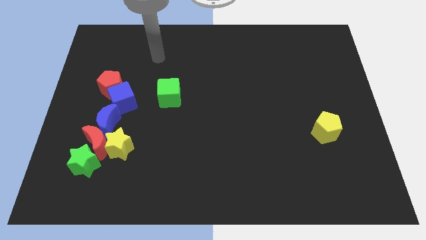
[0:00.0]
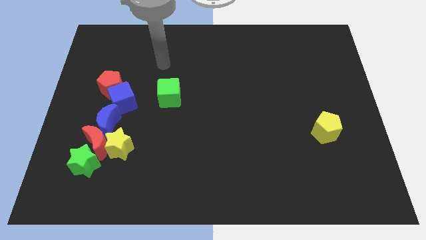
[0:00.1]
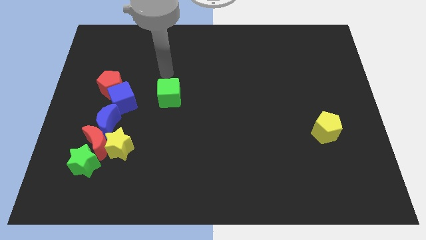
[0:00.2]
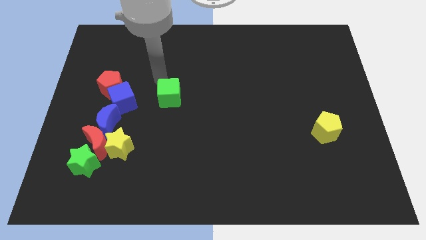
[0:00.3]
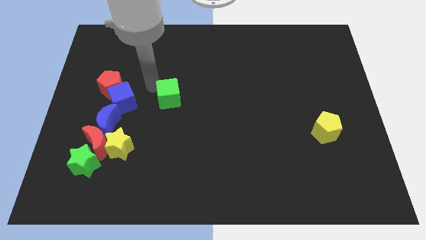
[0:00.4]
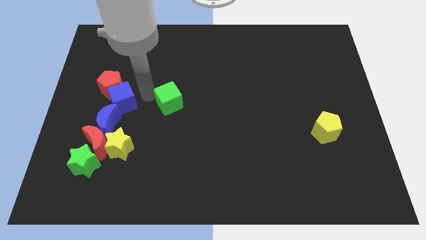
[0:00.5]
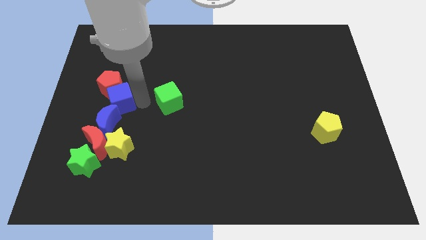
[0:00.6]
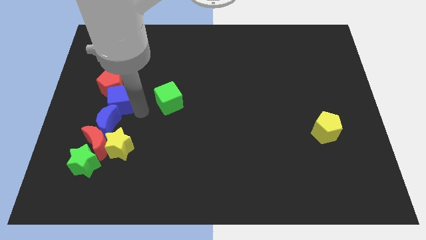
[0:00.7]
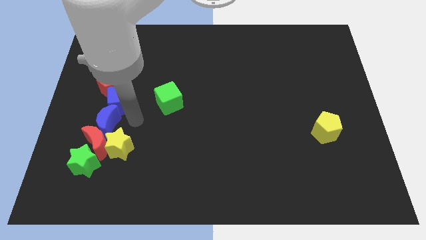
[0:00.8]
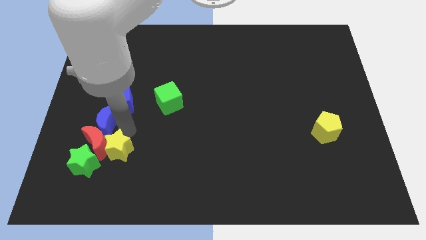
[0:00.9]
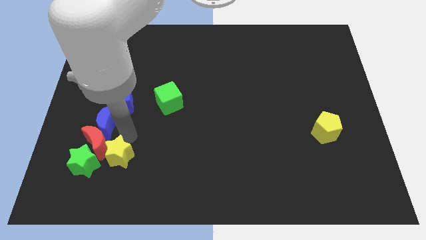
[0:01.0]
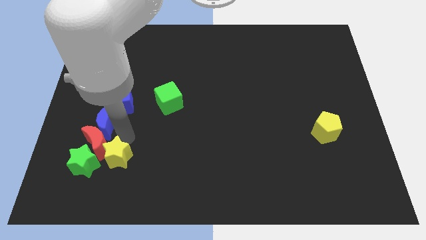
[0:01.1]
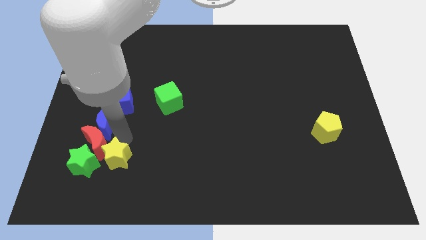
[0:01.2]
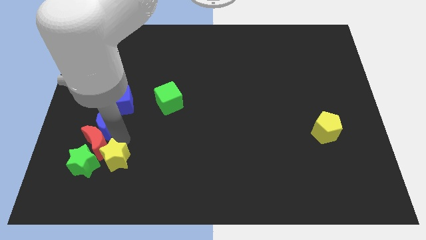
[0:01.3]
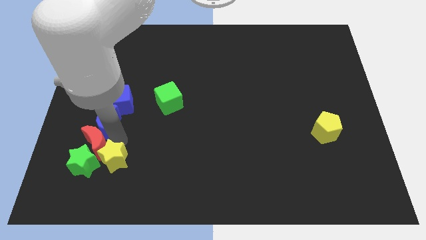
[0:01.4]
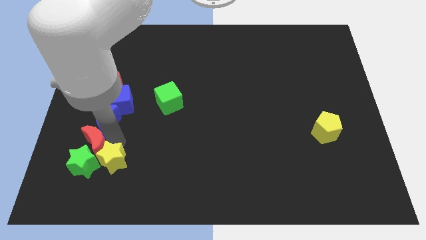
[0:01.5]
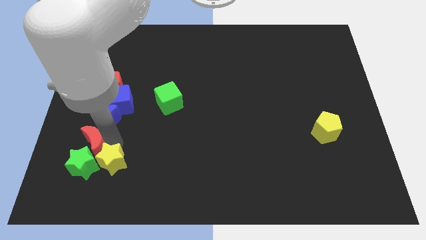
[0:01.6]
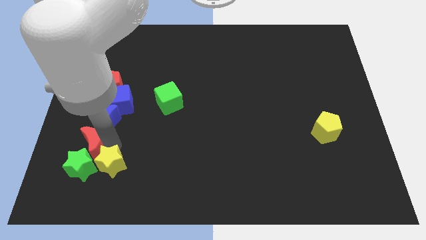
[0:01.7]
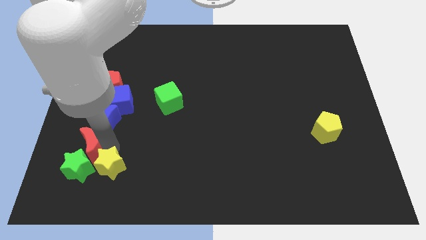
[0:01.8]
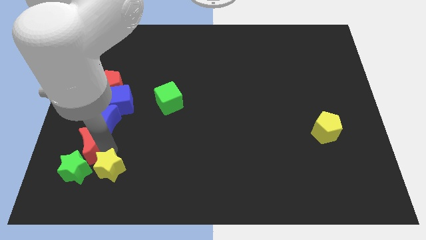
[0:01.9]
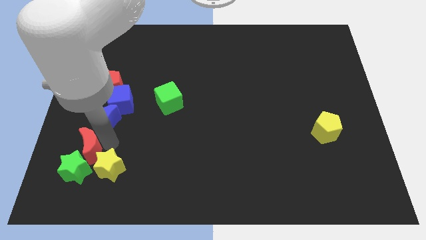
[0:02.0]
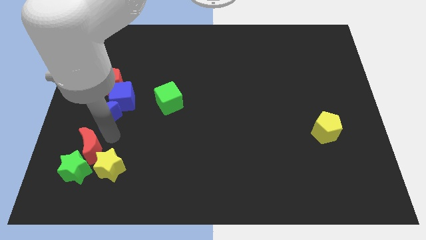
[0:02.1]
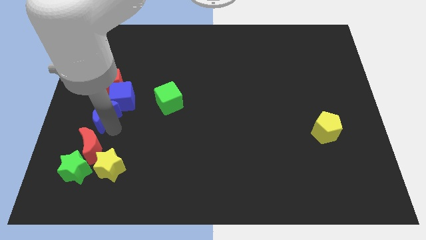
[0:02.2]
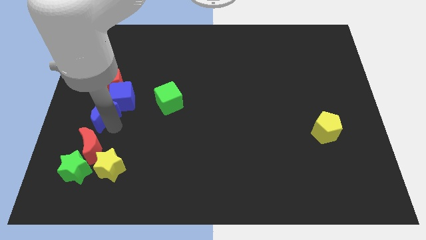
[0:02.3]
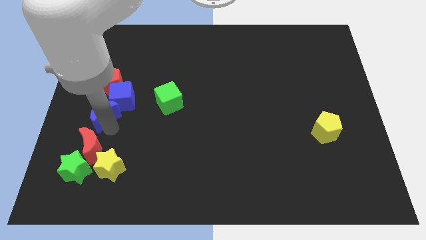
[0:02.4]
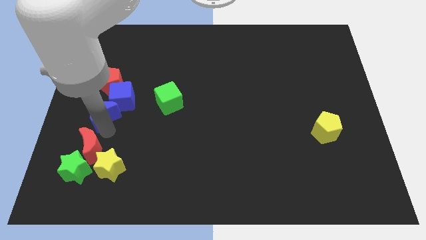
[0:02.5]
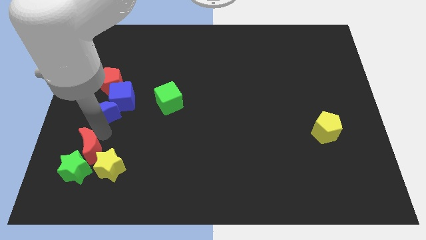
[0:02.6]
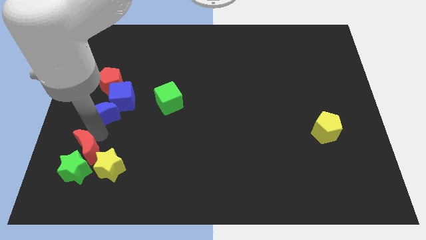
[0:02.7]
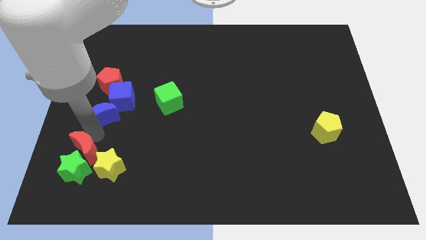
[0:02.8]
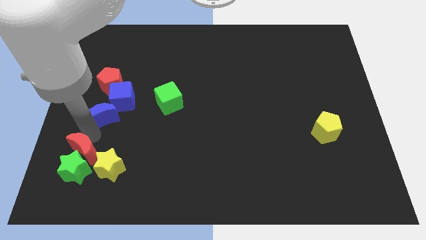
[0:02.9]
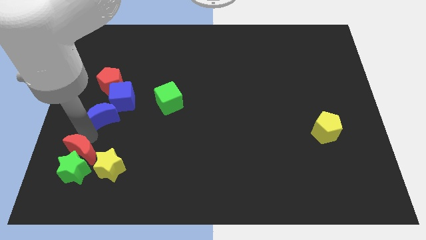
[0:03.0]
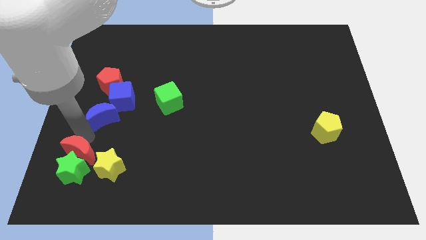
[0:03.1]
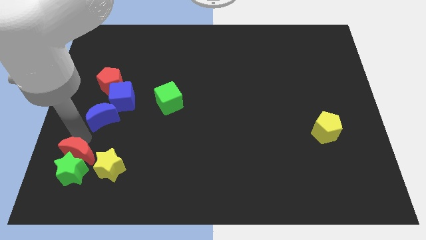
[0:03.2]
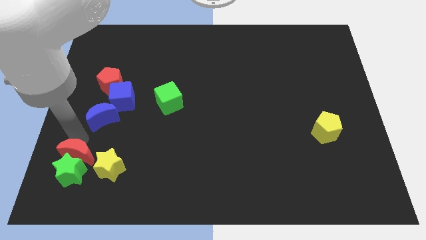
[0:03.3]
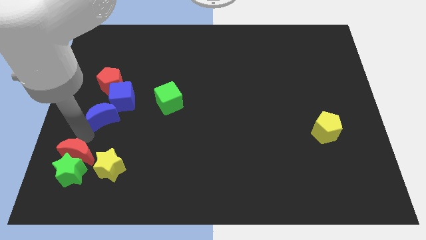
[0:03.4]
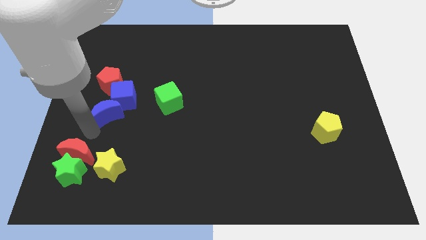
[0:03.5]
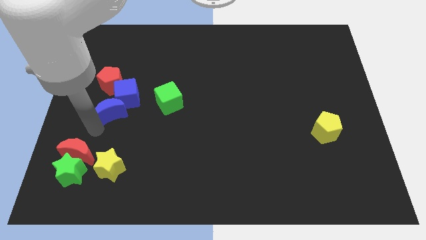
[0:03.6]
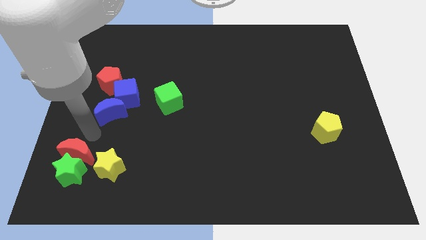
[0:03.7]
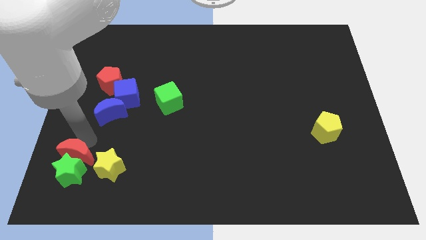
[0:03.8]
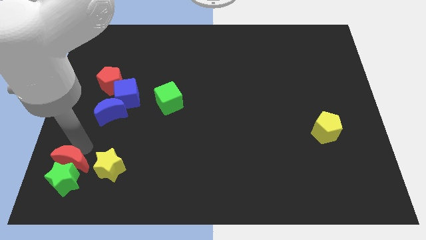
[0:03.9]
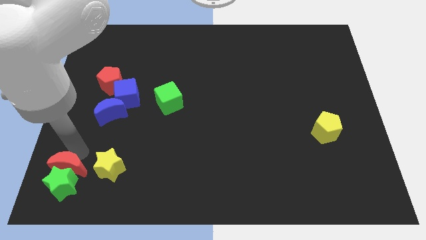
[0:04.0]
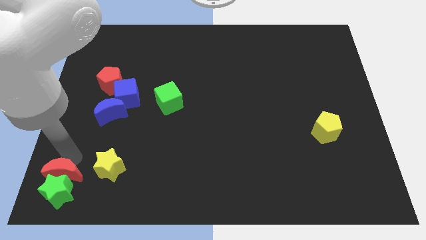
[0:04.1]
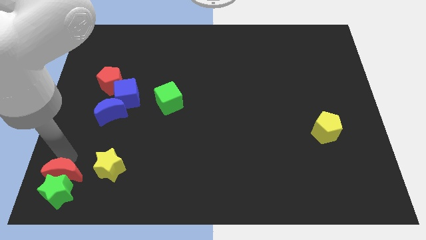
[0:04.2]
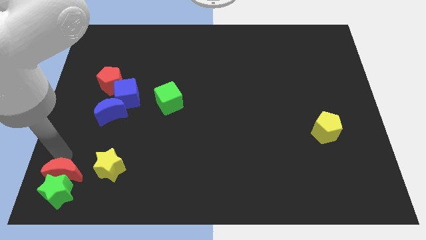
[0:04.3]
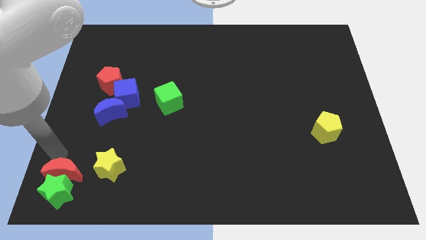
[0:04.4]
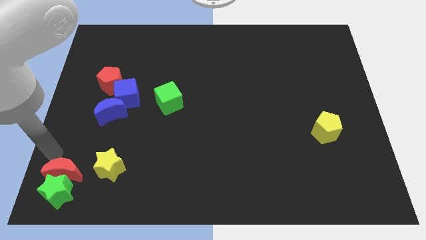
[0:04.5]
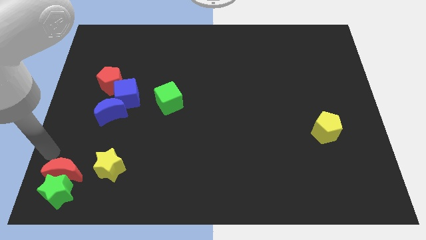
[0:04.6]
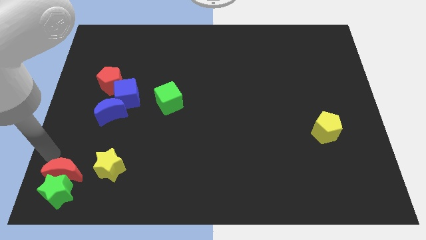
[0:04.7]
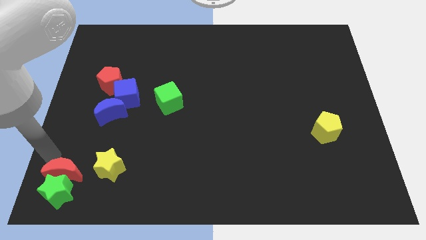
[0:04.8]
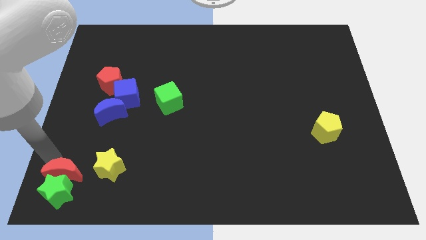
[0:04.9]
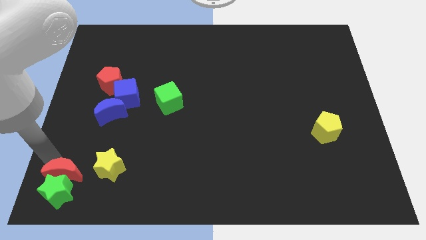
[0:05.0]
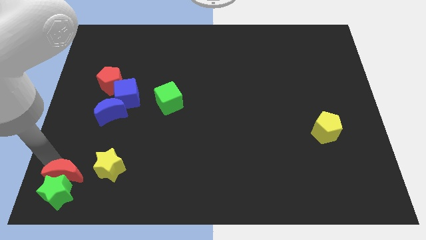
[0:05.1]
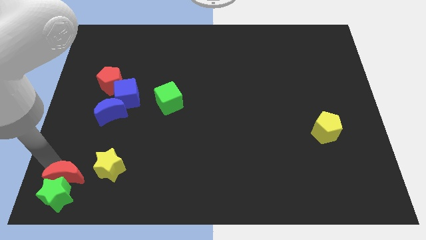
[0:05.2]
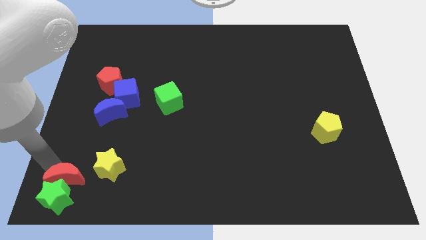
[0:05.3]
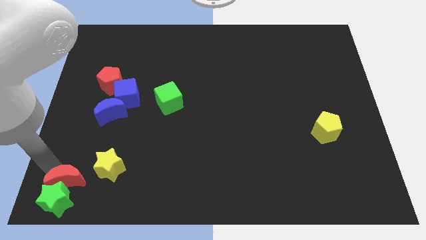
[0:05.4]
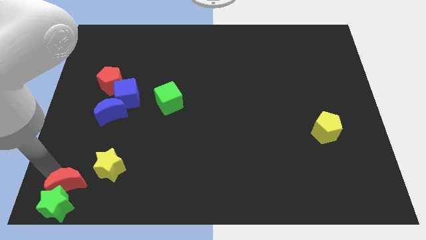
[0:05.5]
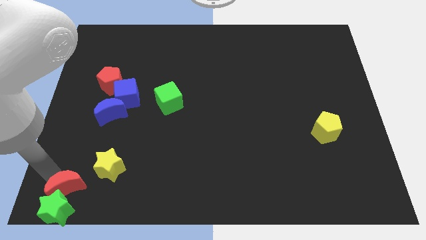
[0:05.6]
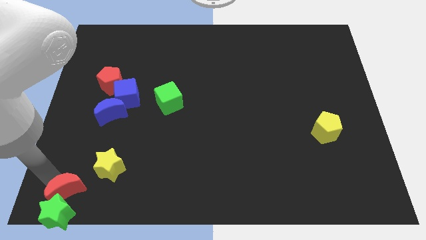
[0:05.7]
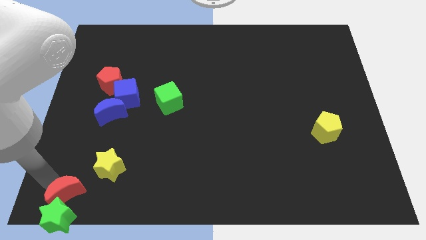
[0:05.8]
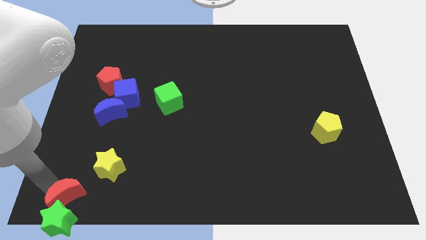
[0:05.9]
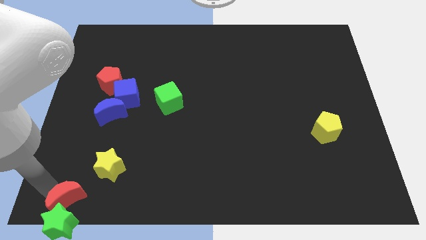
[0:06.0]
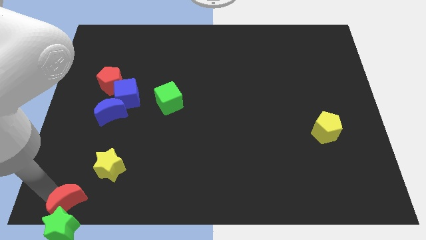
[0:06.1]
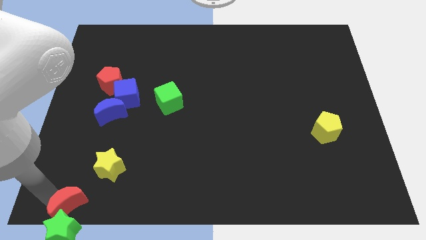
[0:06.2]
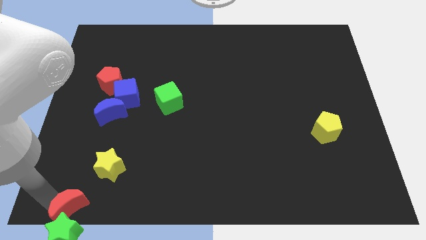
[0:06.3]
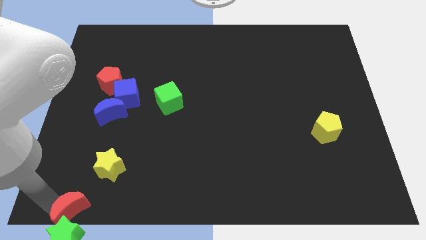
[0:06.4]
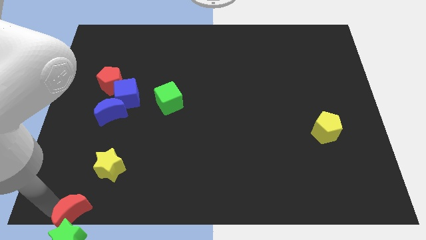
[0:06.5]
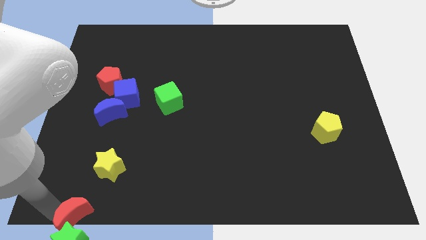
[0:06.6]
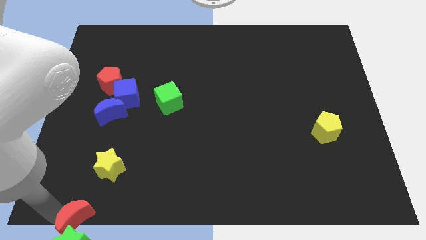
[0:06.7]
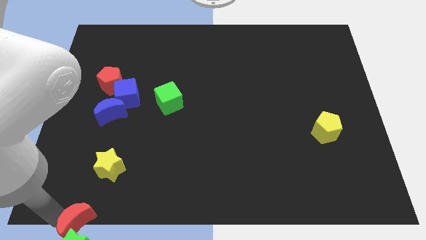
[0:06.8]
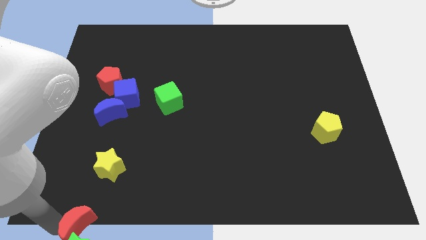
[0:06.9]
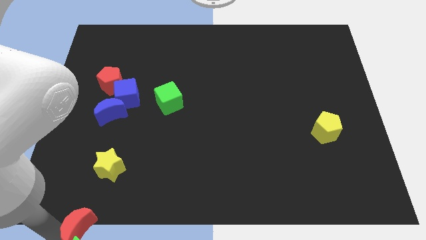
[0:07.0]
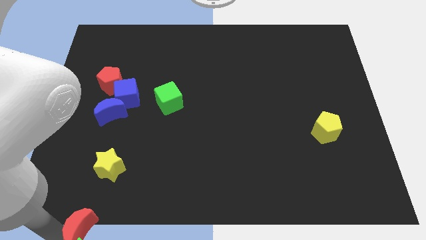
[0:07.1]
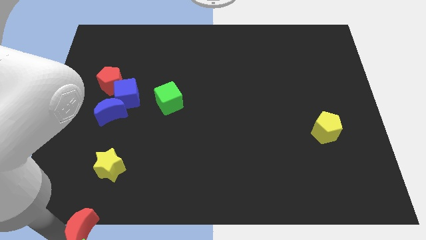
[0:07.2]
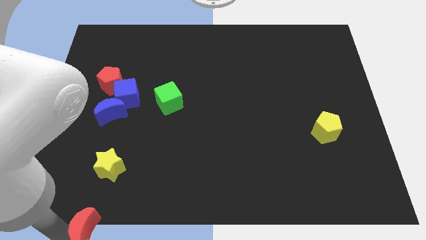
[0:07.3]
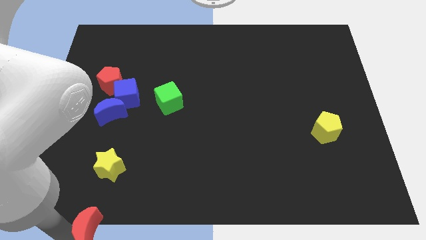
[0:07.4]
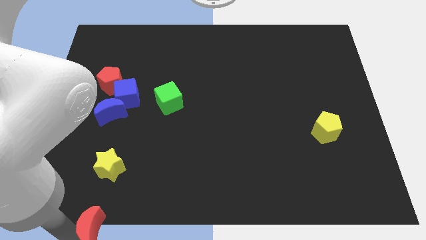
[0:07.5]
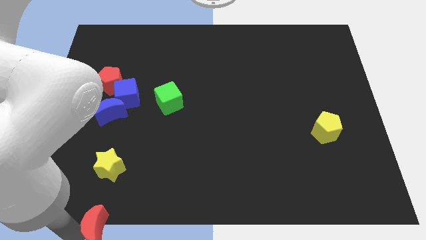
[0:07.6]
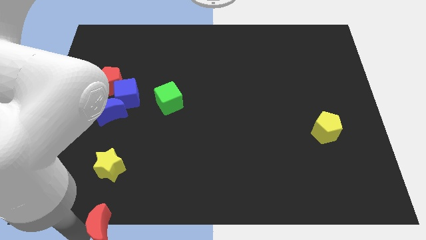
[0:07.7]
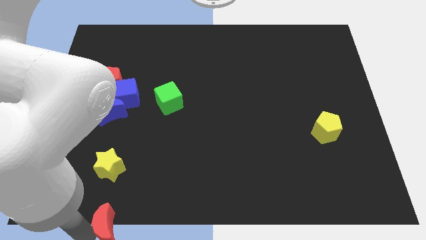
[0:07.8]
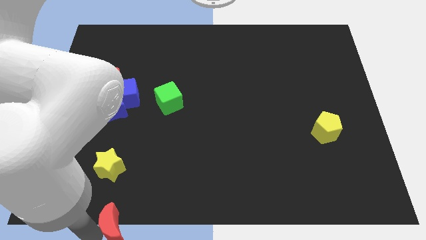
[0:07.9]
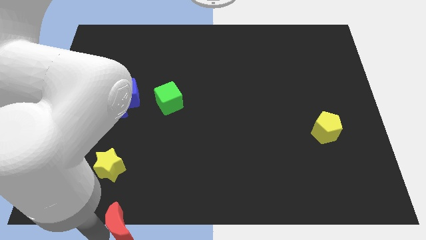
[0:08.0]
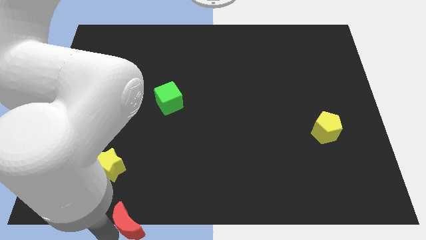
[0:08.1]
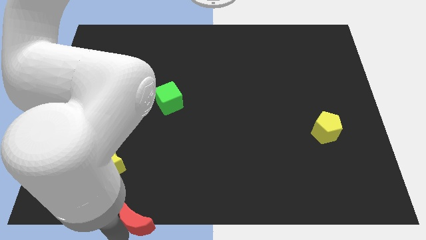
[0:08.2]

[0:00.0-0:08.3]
put the red moon to the bottom
